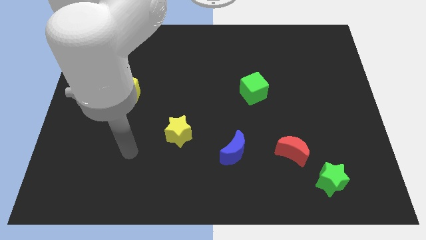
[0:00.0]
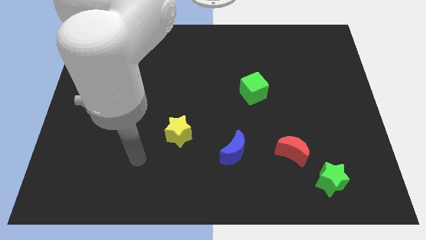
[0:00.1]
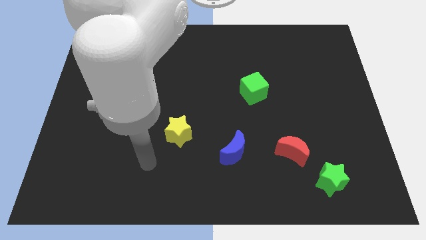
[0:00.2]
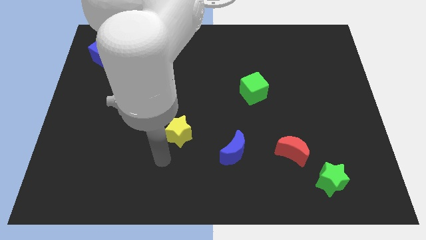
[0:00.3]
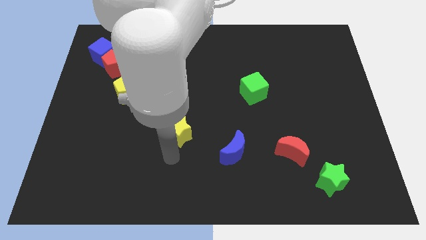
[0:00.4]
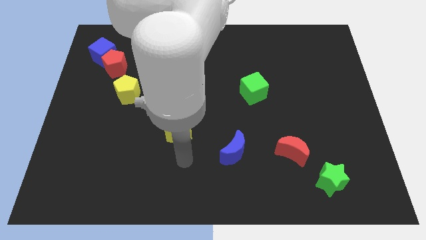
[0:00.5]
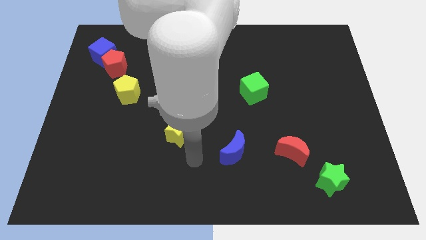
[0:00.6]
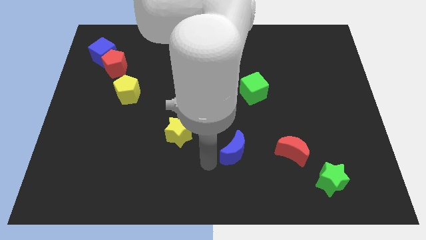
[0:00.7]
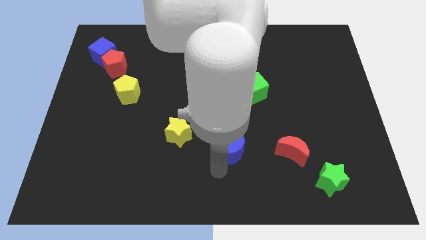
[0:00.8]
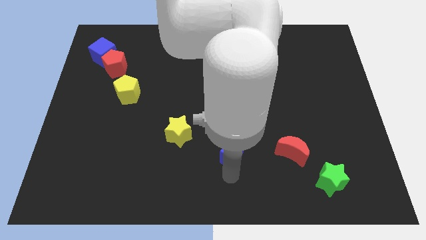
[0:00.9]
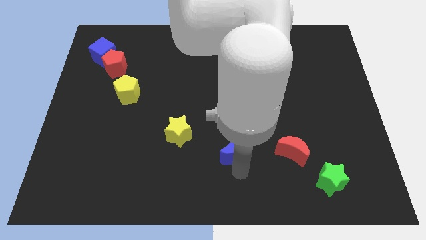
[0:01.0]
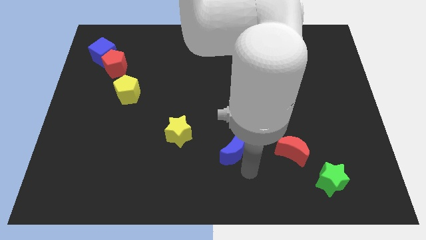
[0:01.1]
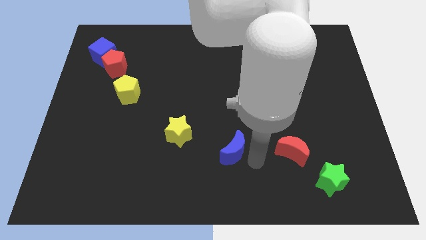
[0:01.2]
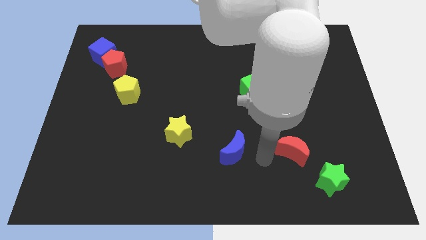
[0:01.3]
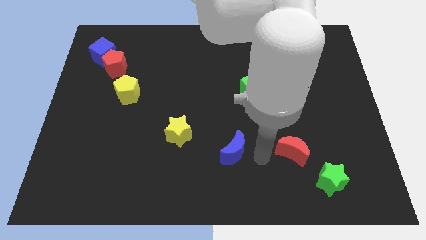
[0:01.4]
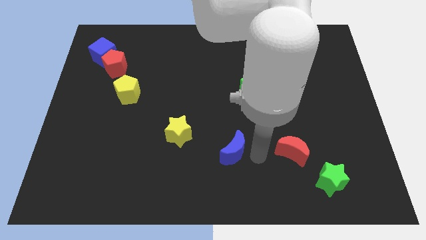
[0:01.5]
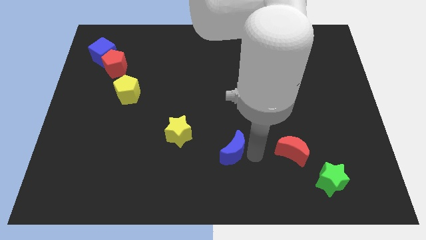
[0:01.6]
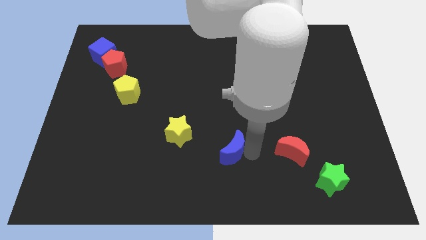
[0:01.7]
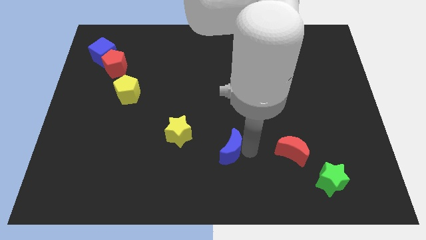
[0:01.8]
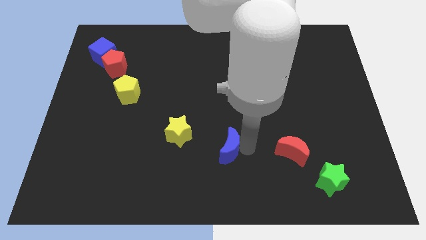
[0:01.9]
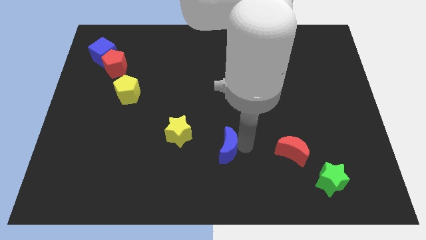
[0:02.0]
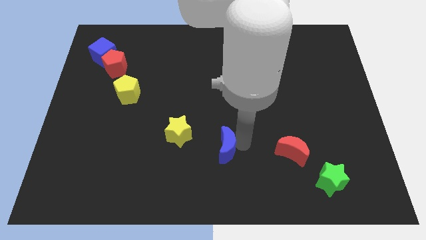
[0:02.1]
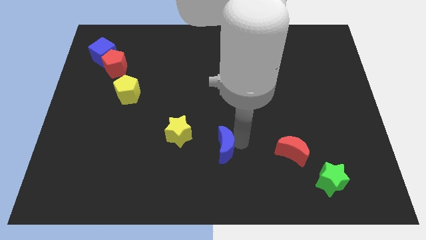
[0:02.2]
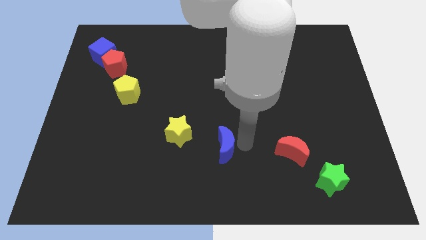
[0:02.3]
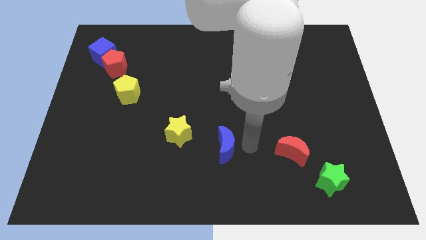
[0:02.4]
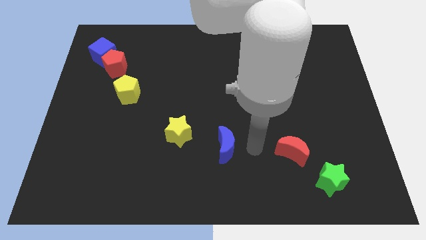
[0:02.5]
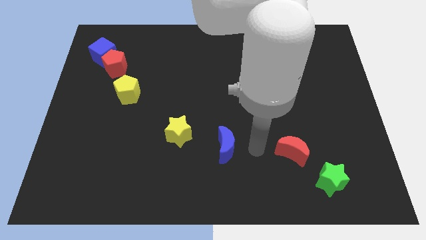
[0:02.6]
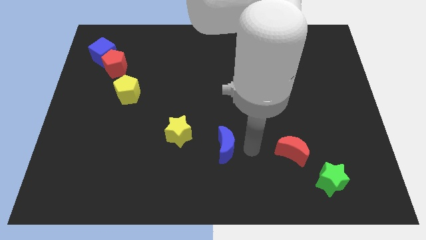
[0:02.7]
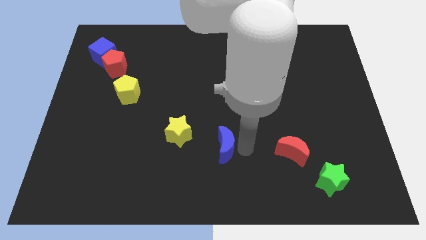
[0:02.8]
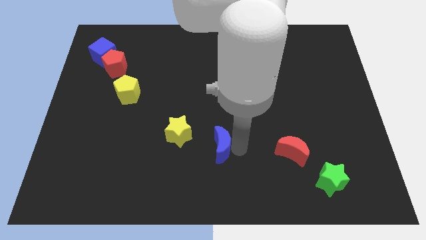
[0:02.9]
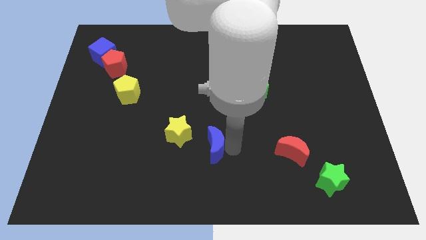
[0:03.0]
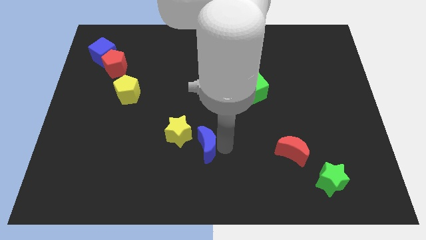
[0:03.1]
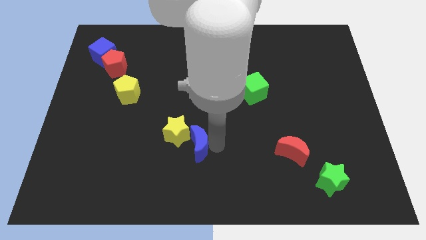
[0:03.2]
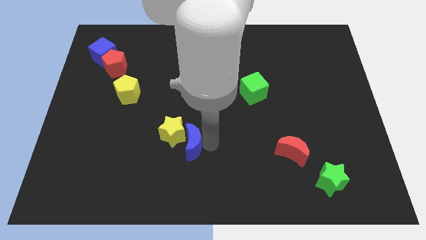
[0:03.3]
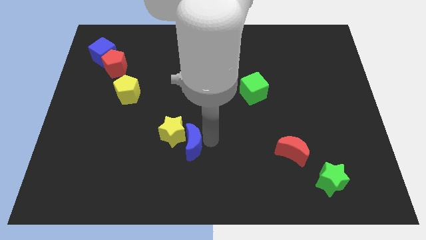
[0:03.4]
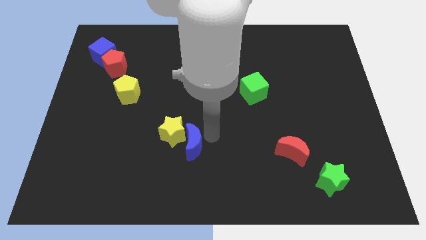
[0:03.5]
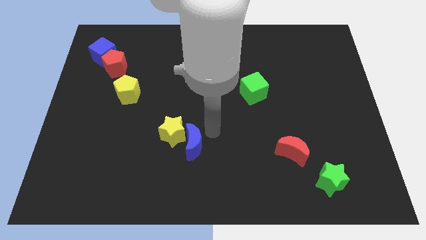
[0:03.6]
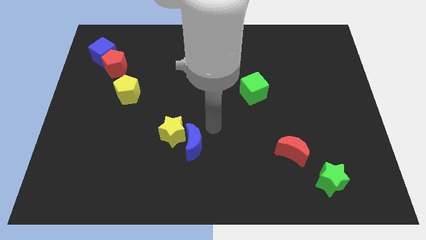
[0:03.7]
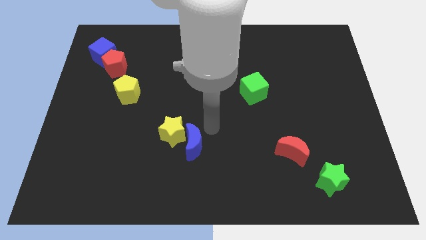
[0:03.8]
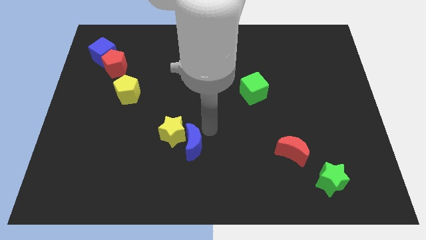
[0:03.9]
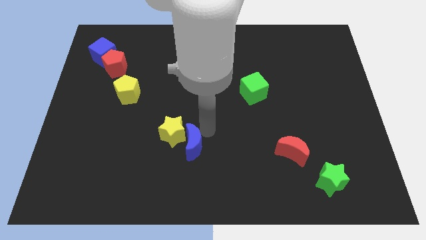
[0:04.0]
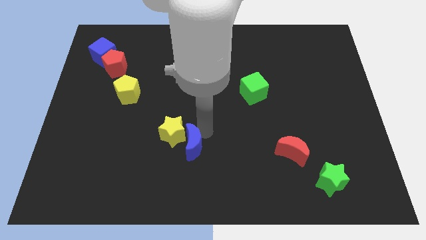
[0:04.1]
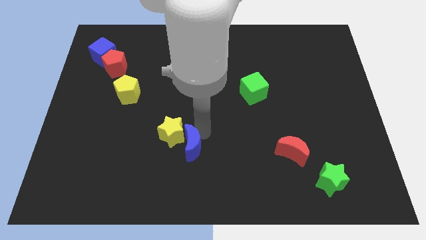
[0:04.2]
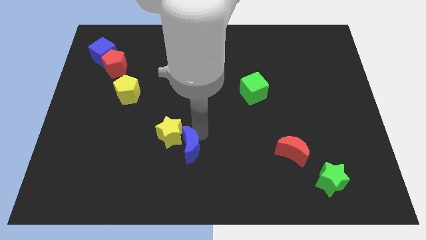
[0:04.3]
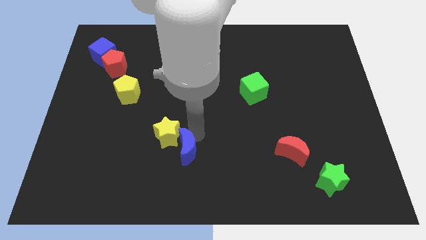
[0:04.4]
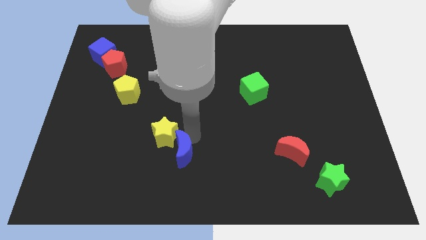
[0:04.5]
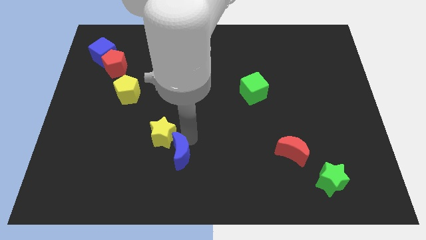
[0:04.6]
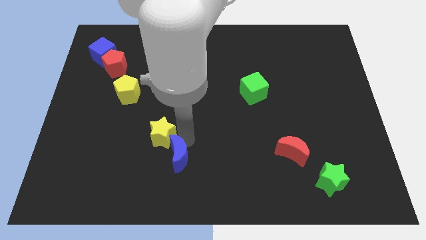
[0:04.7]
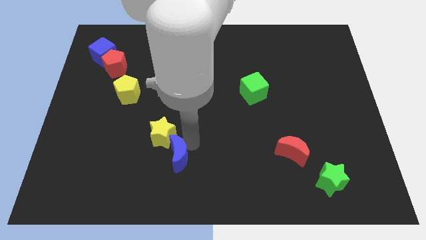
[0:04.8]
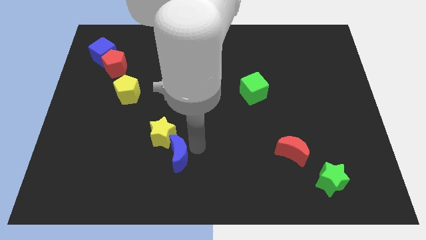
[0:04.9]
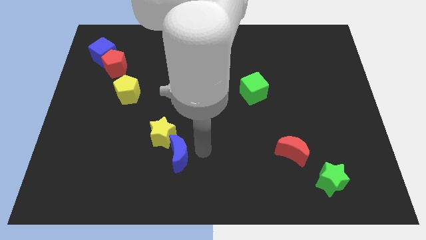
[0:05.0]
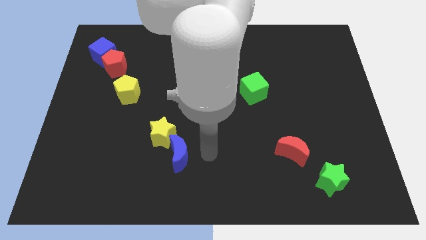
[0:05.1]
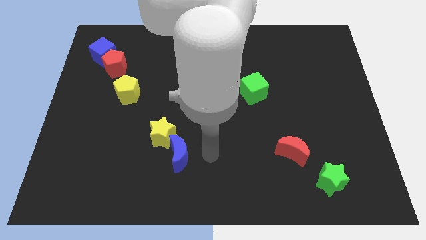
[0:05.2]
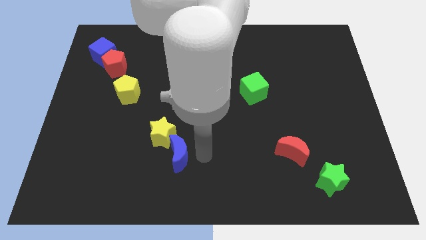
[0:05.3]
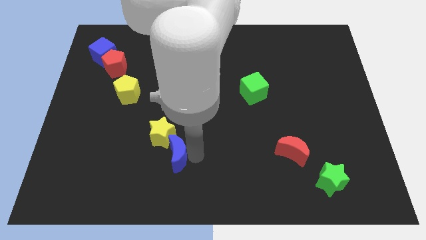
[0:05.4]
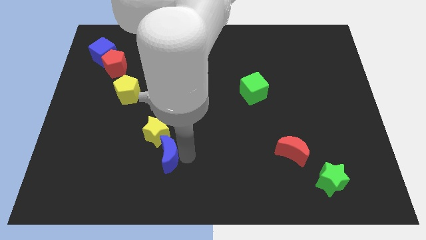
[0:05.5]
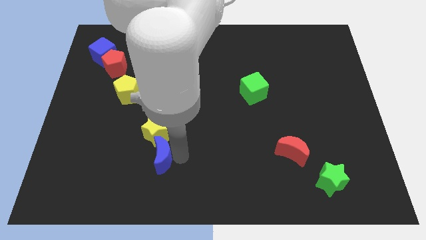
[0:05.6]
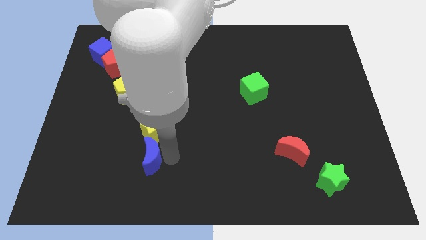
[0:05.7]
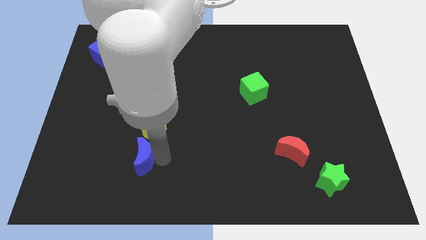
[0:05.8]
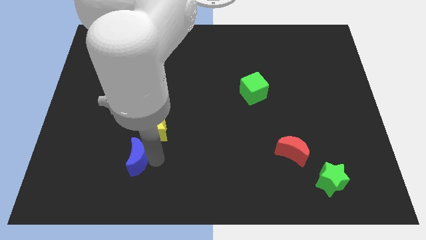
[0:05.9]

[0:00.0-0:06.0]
move the blue moon left

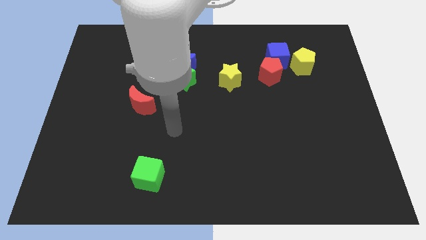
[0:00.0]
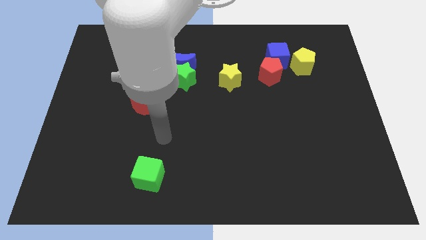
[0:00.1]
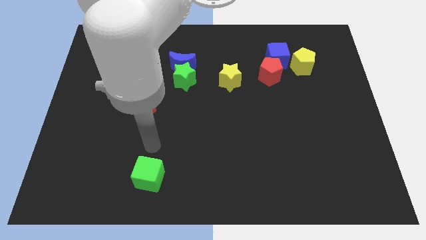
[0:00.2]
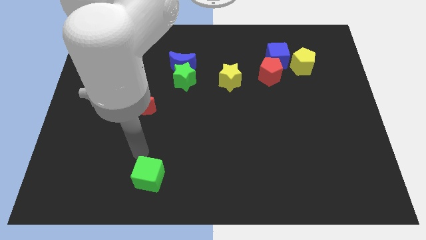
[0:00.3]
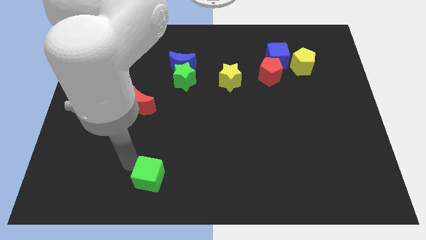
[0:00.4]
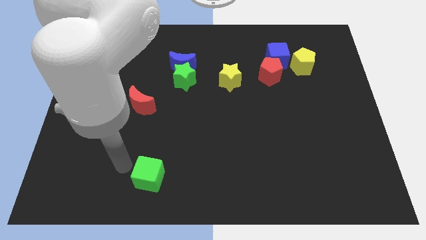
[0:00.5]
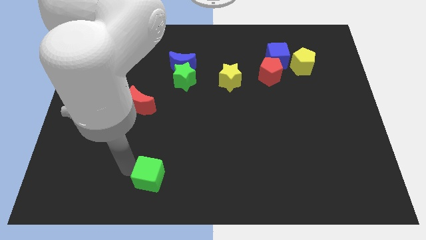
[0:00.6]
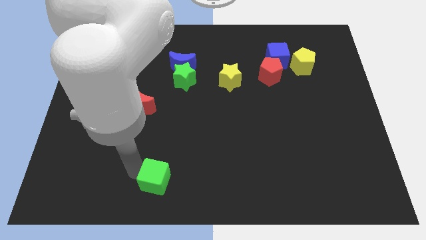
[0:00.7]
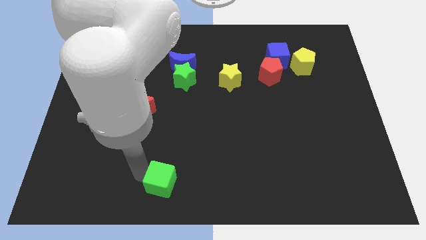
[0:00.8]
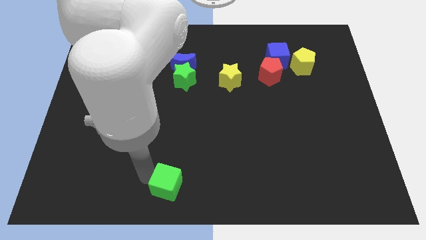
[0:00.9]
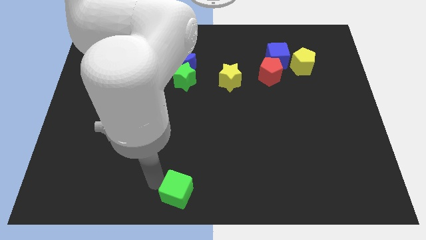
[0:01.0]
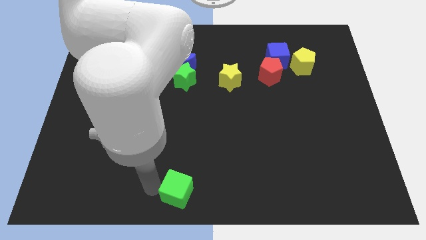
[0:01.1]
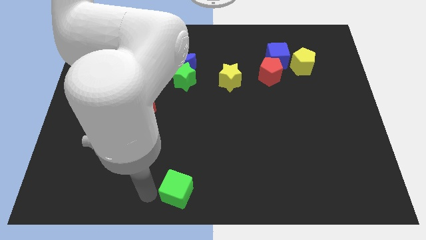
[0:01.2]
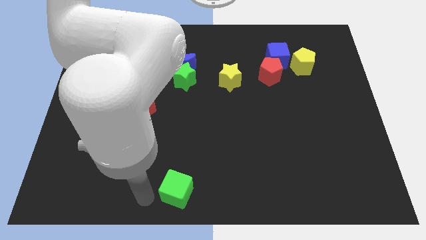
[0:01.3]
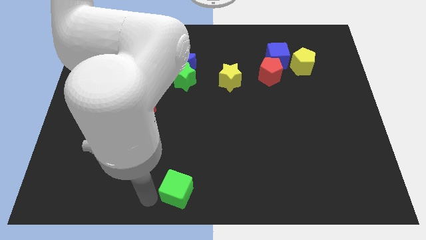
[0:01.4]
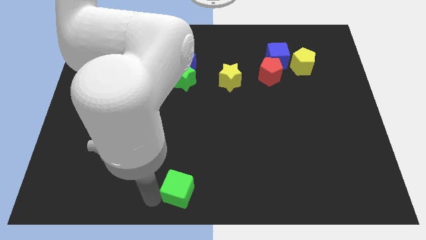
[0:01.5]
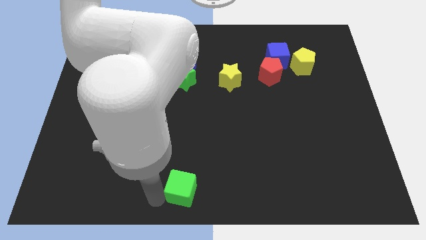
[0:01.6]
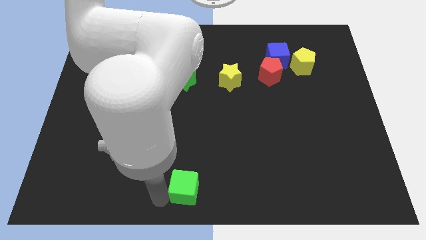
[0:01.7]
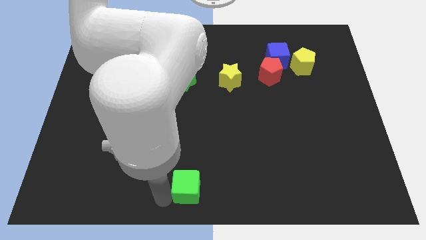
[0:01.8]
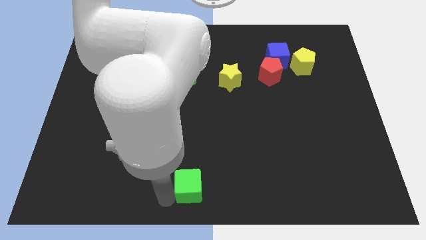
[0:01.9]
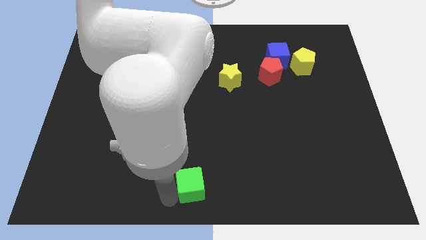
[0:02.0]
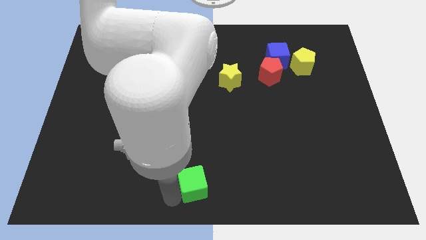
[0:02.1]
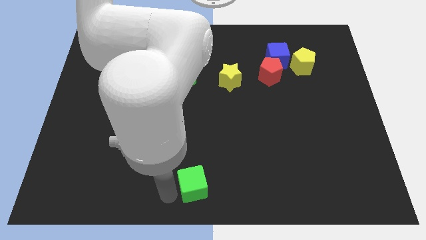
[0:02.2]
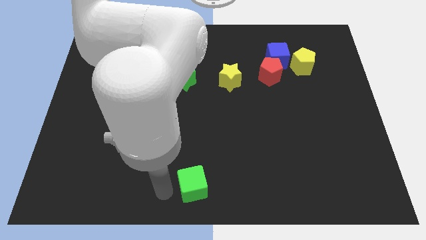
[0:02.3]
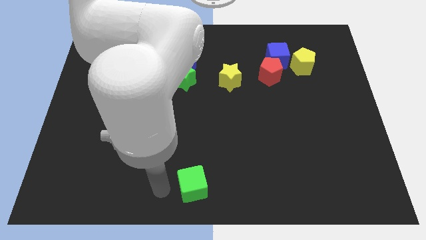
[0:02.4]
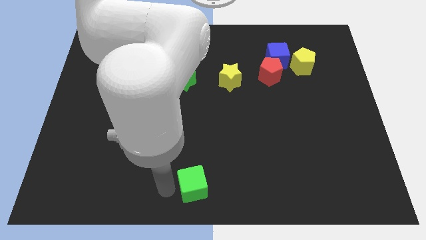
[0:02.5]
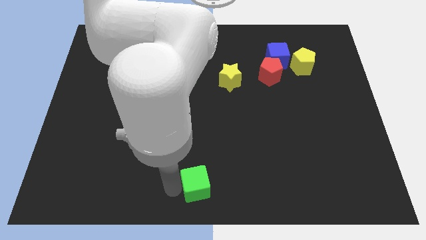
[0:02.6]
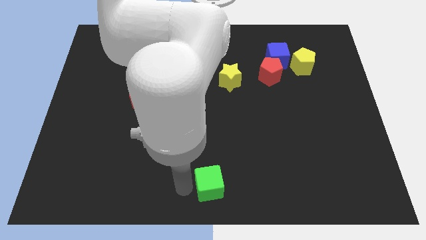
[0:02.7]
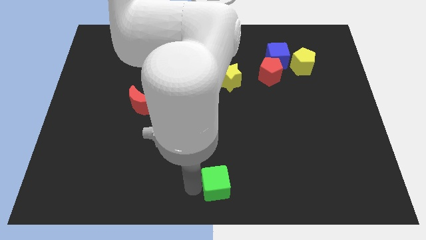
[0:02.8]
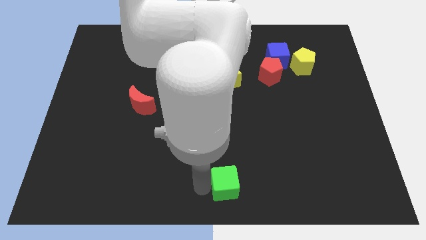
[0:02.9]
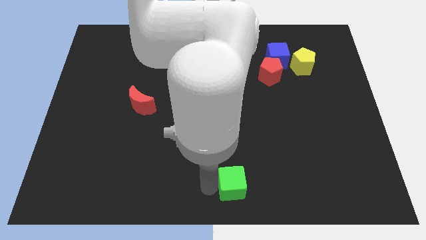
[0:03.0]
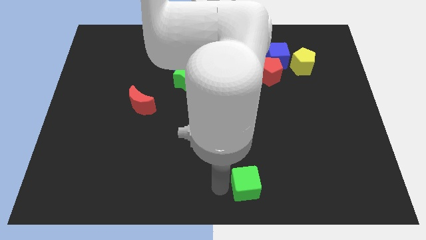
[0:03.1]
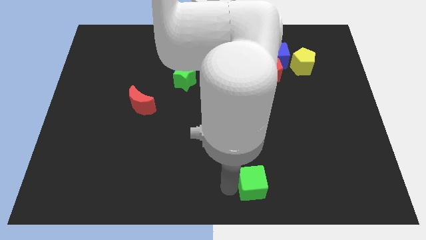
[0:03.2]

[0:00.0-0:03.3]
push the green cube right
